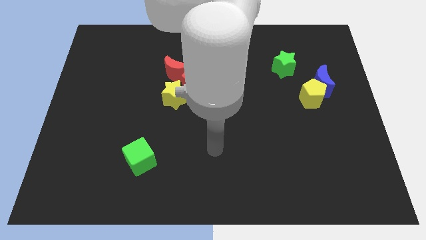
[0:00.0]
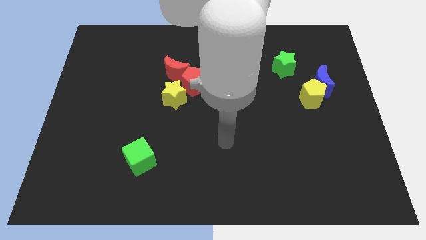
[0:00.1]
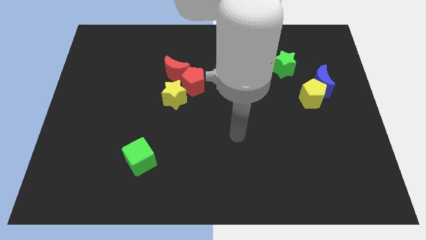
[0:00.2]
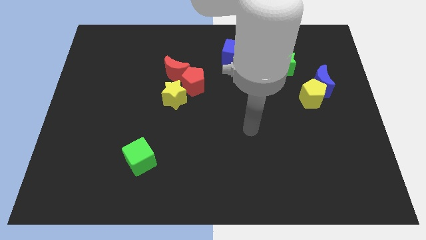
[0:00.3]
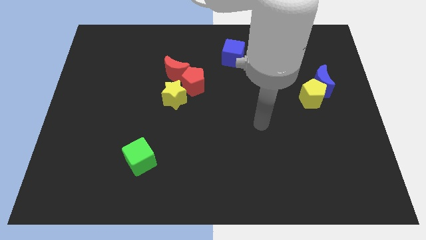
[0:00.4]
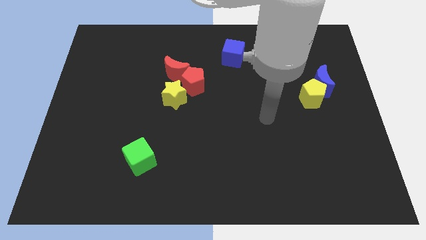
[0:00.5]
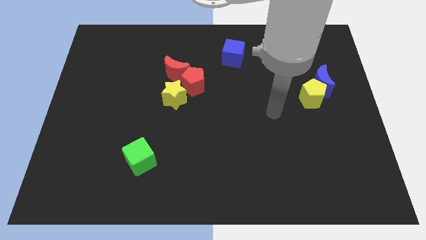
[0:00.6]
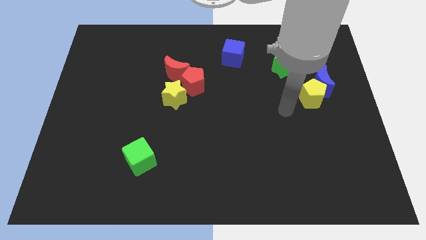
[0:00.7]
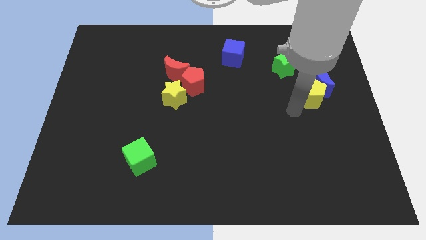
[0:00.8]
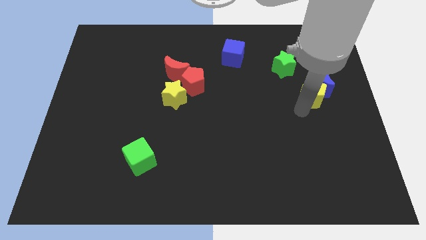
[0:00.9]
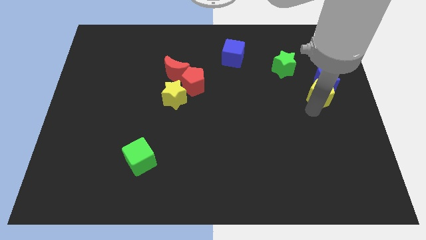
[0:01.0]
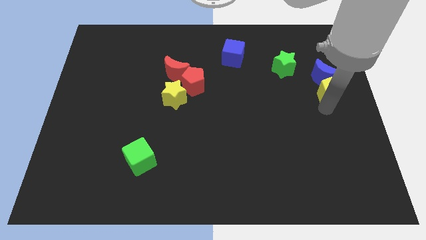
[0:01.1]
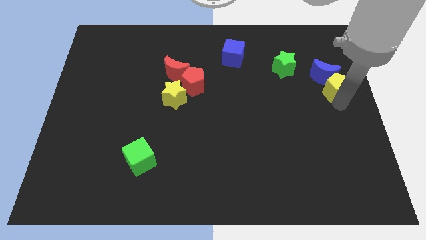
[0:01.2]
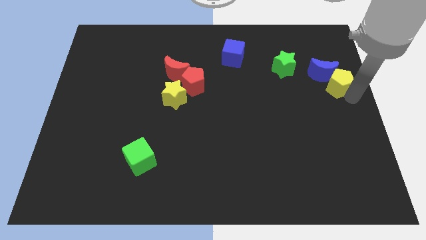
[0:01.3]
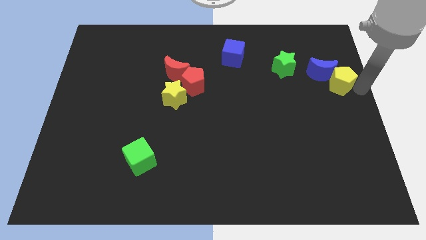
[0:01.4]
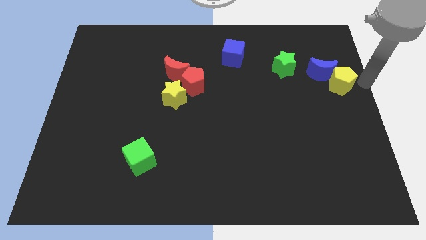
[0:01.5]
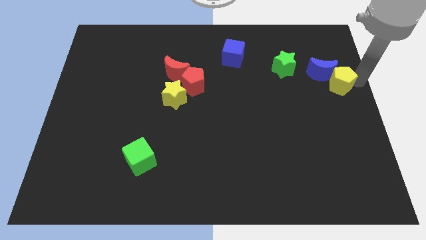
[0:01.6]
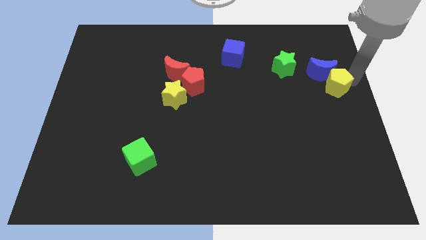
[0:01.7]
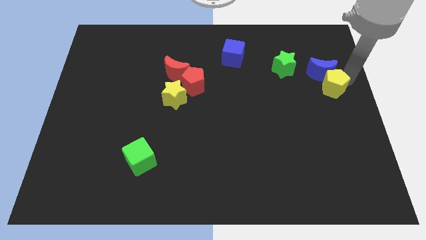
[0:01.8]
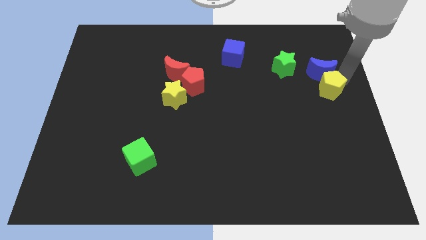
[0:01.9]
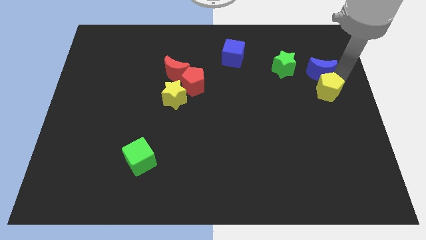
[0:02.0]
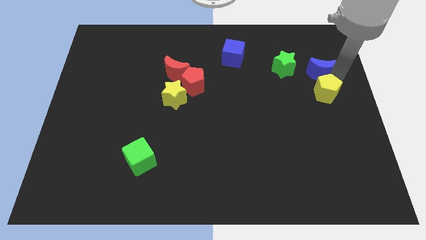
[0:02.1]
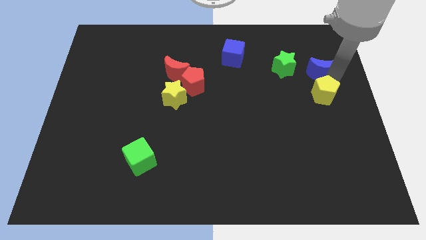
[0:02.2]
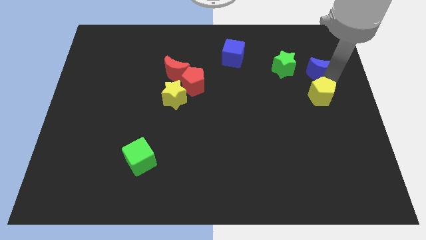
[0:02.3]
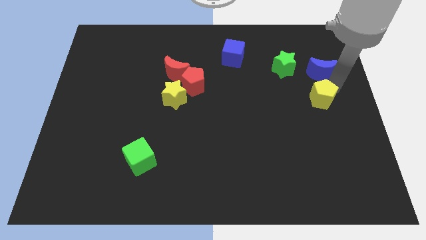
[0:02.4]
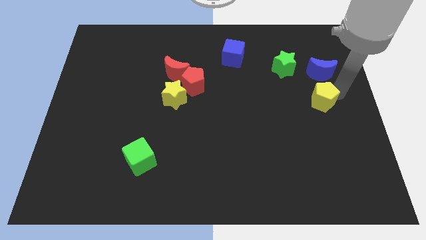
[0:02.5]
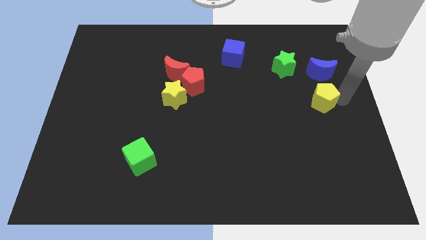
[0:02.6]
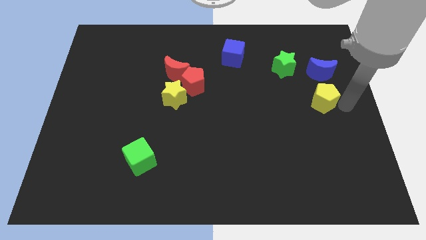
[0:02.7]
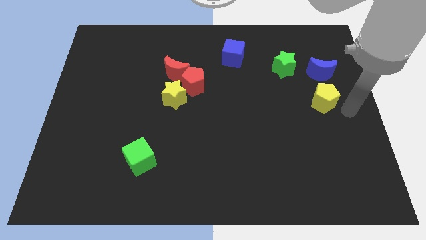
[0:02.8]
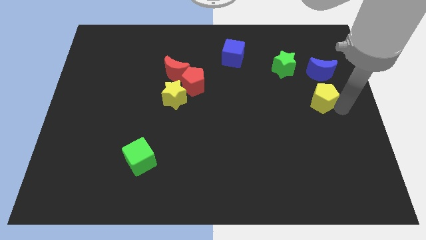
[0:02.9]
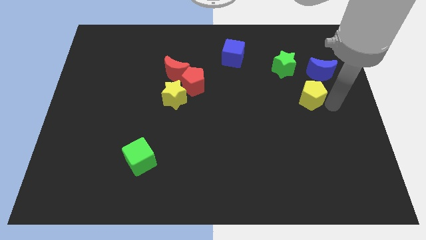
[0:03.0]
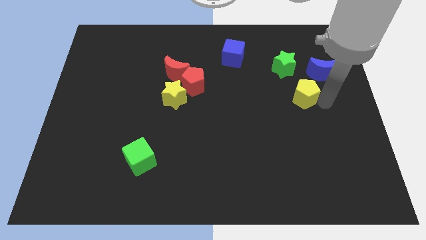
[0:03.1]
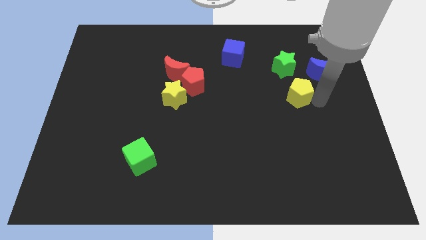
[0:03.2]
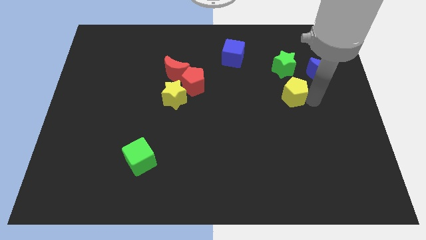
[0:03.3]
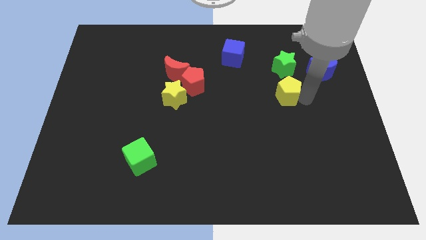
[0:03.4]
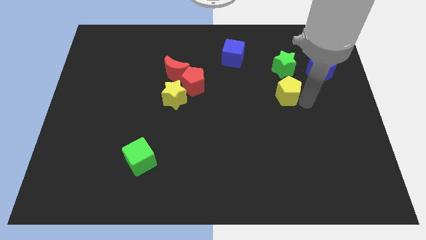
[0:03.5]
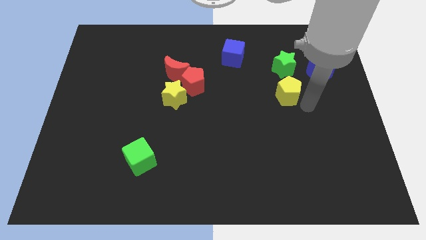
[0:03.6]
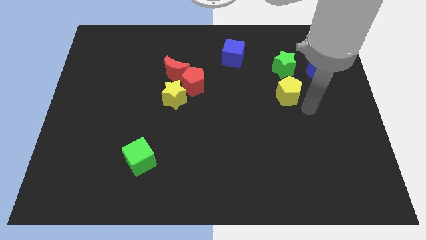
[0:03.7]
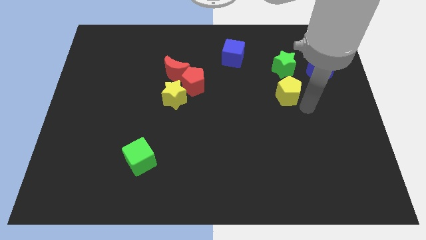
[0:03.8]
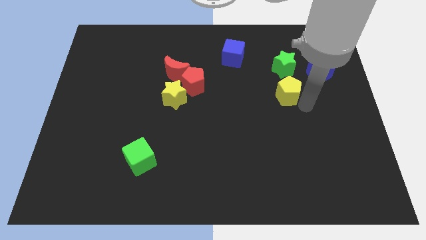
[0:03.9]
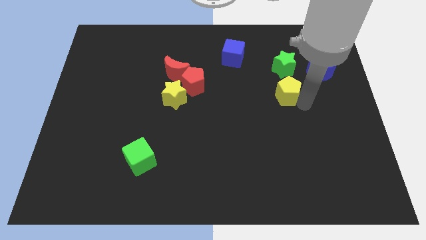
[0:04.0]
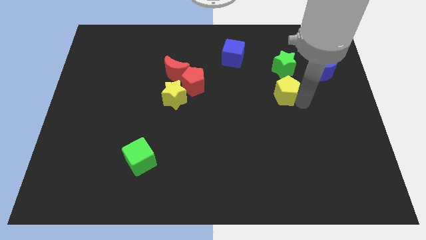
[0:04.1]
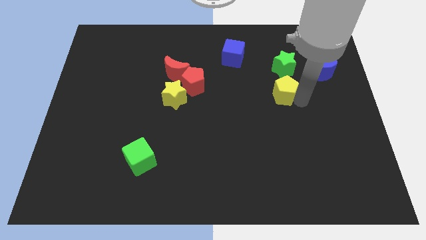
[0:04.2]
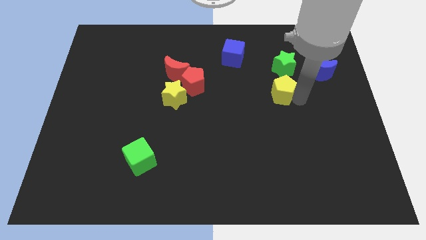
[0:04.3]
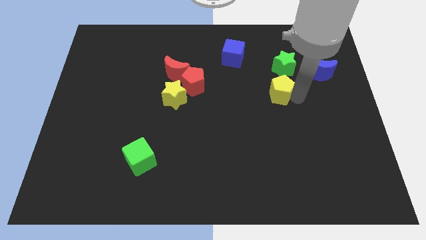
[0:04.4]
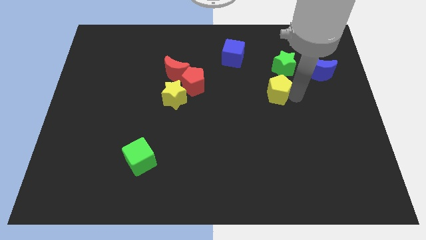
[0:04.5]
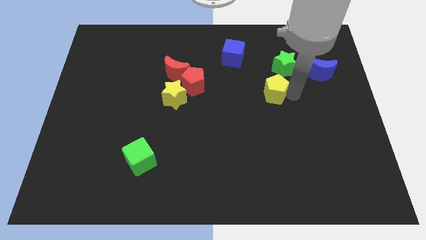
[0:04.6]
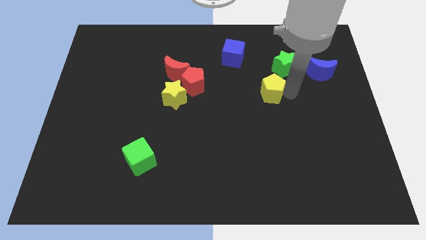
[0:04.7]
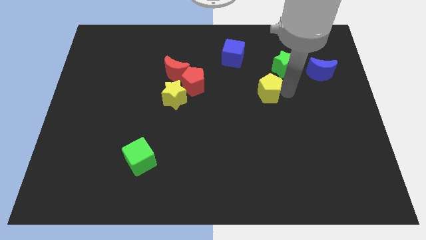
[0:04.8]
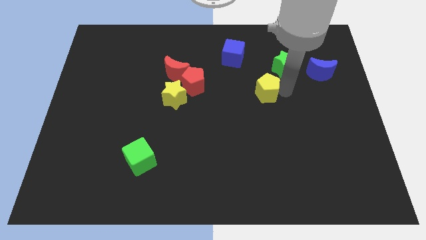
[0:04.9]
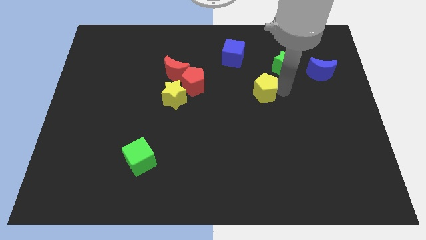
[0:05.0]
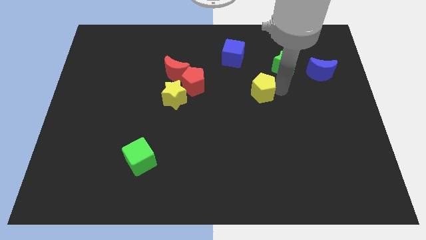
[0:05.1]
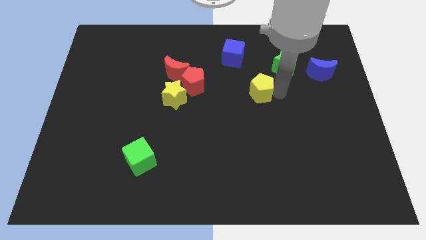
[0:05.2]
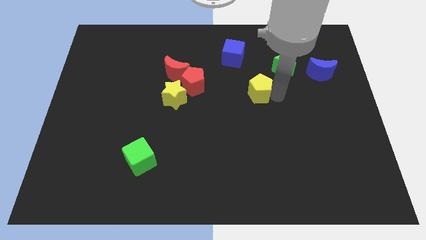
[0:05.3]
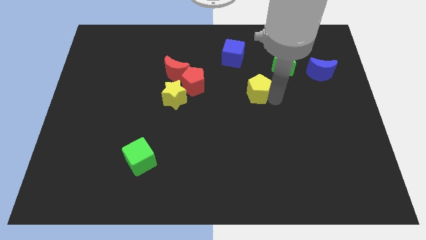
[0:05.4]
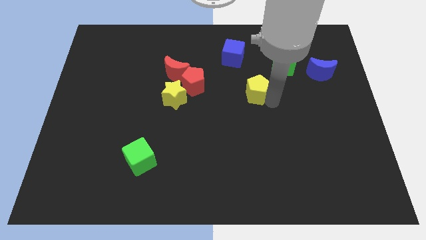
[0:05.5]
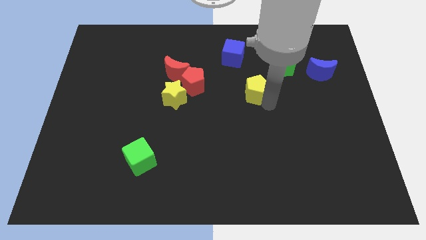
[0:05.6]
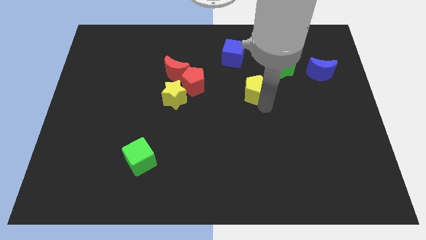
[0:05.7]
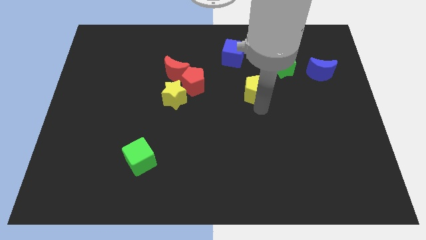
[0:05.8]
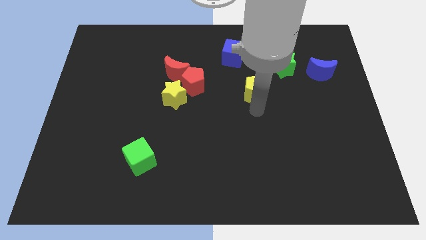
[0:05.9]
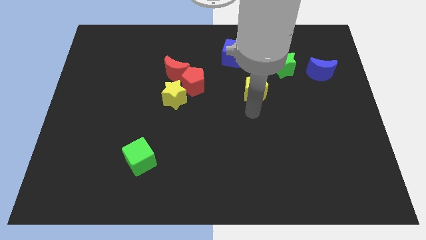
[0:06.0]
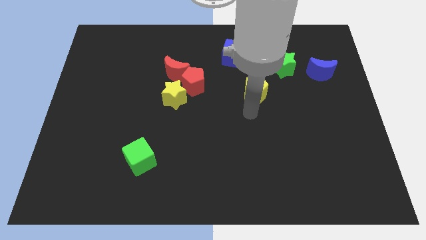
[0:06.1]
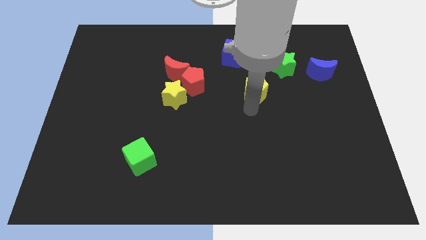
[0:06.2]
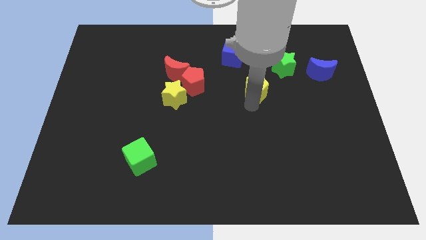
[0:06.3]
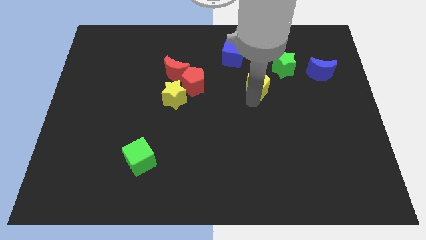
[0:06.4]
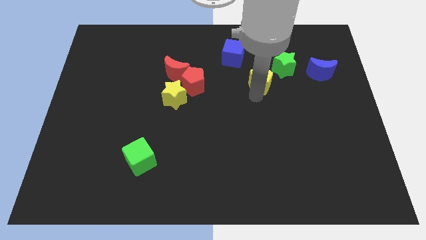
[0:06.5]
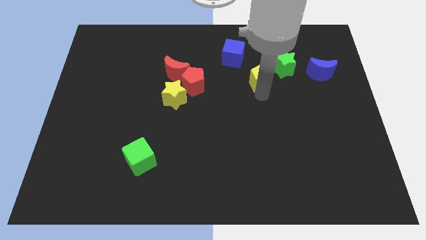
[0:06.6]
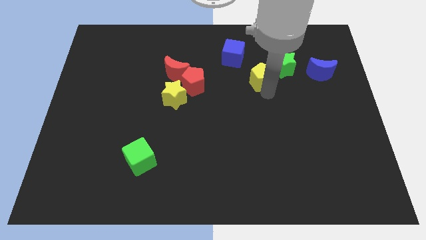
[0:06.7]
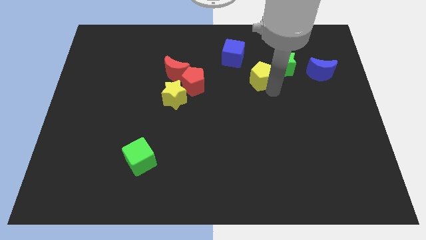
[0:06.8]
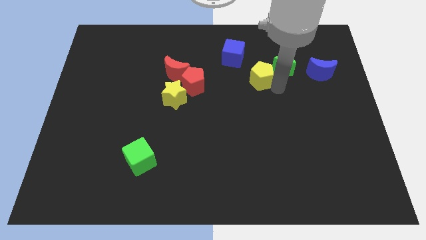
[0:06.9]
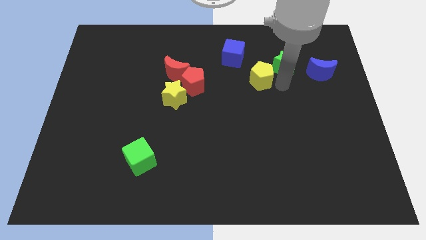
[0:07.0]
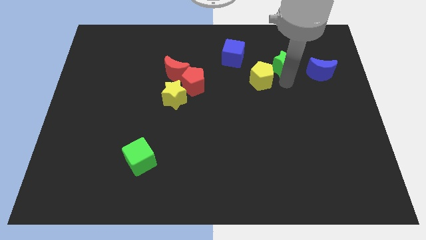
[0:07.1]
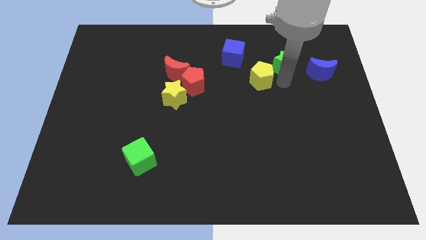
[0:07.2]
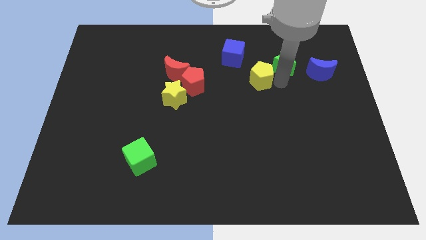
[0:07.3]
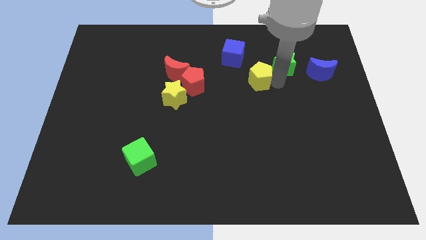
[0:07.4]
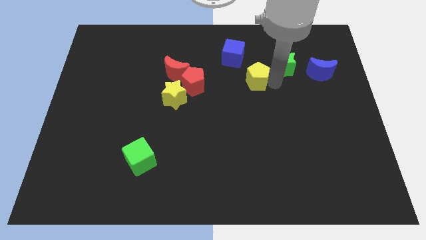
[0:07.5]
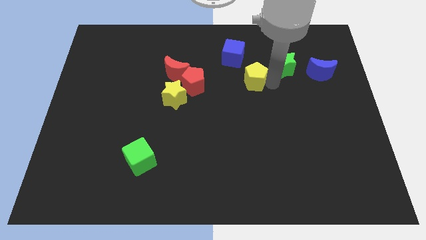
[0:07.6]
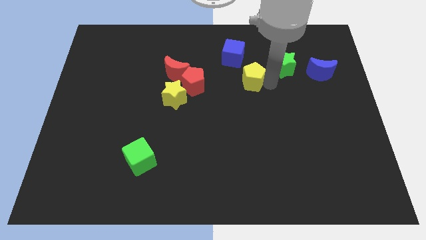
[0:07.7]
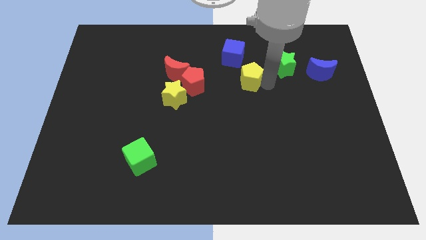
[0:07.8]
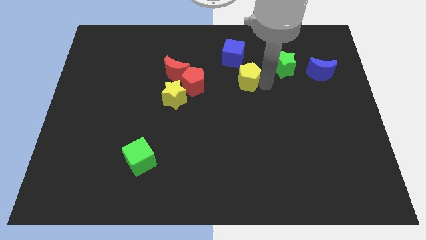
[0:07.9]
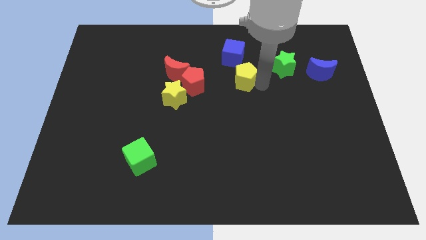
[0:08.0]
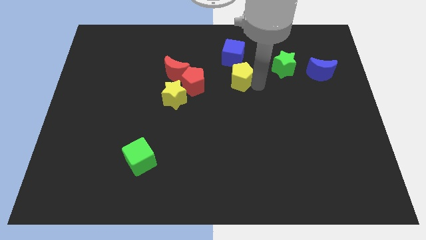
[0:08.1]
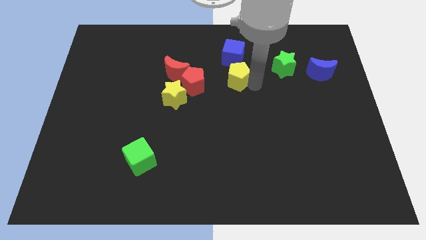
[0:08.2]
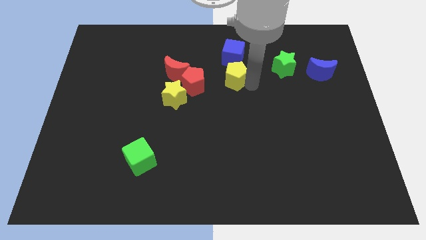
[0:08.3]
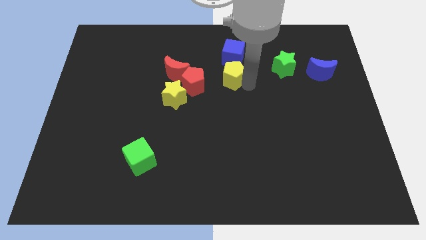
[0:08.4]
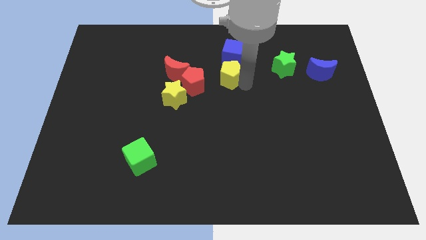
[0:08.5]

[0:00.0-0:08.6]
put the yellow pentagon diagonally down and to the left of the blue cube
